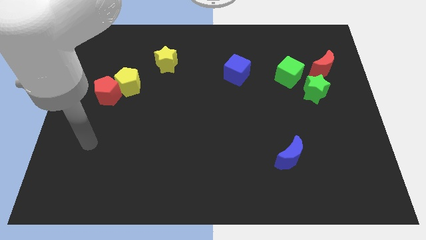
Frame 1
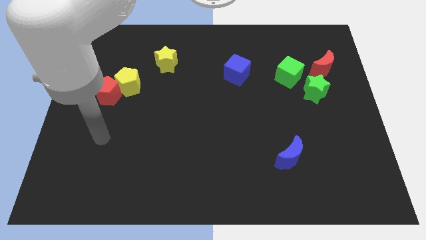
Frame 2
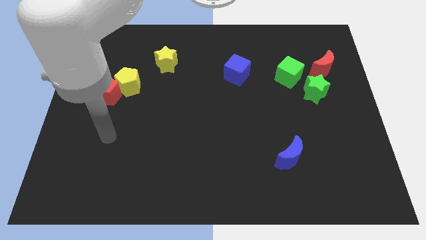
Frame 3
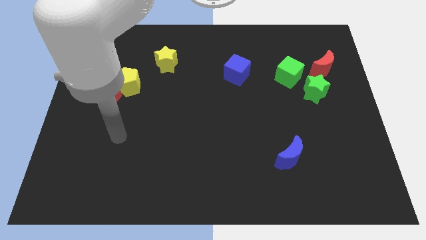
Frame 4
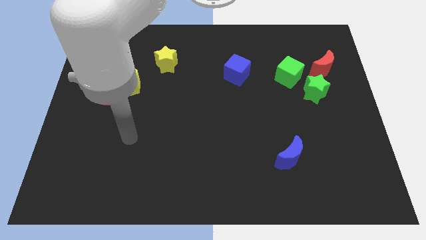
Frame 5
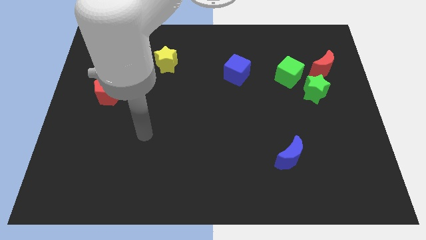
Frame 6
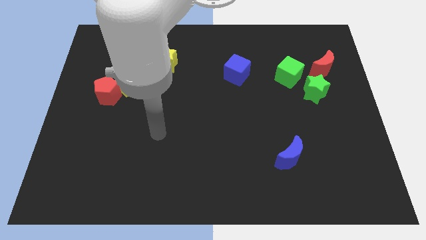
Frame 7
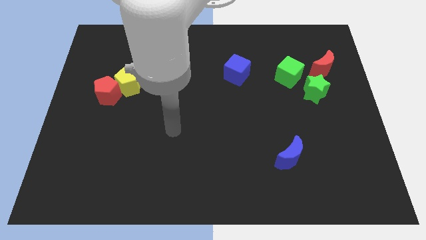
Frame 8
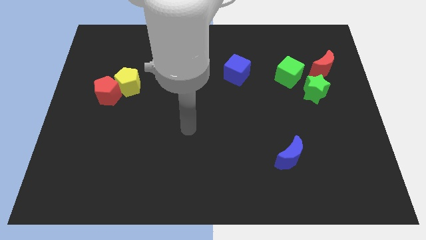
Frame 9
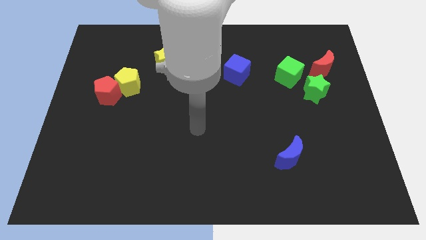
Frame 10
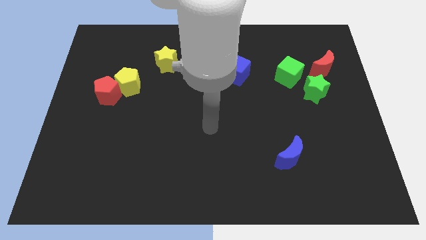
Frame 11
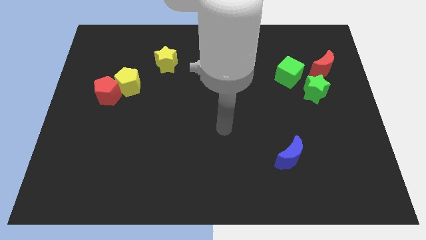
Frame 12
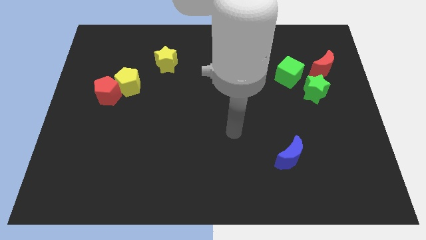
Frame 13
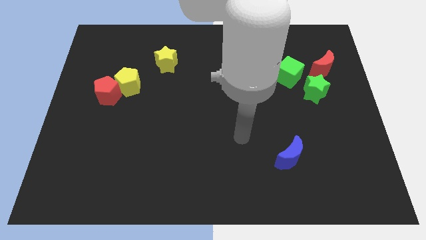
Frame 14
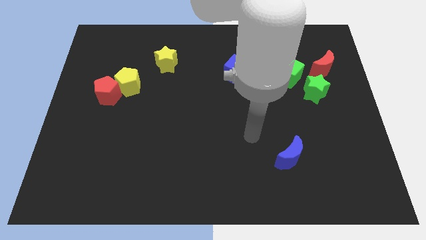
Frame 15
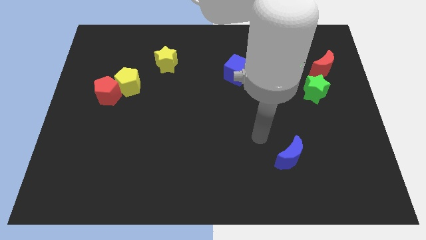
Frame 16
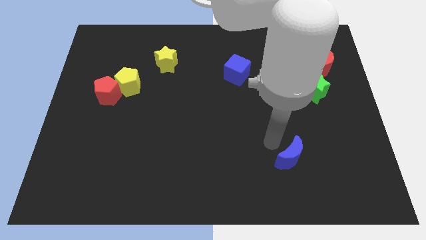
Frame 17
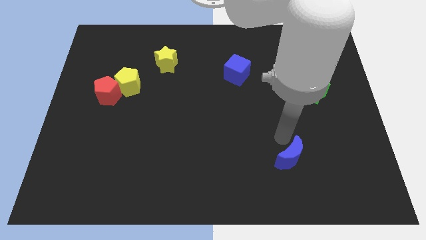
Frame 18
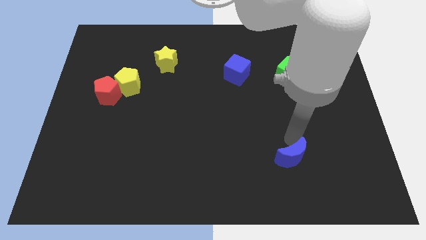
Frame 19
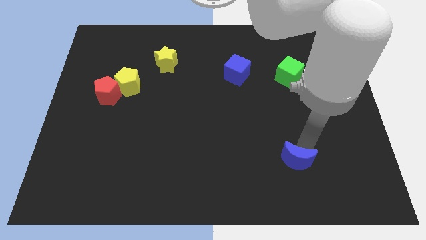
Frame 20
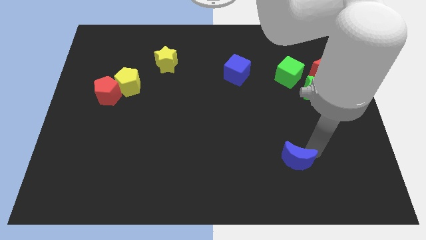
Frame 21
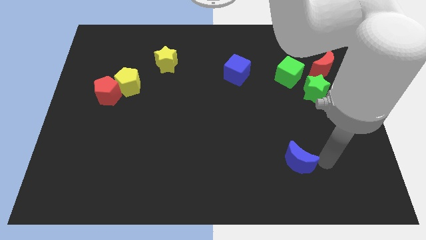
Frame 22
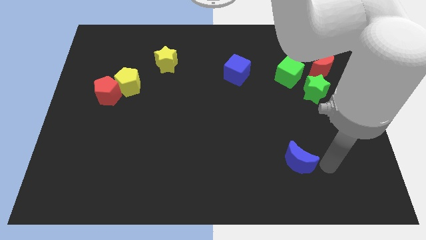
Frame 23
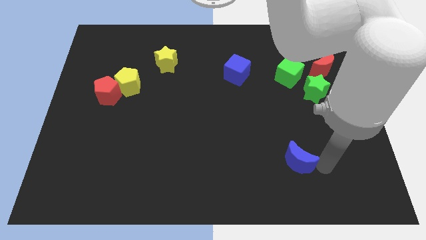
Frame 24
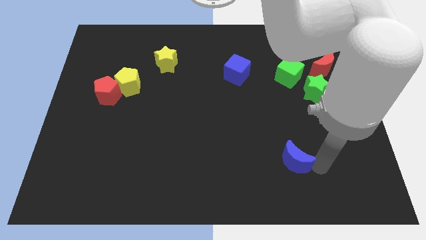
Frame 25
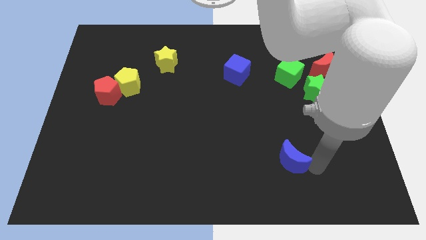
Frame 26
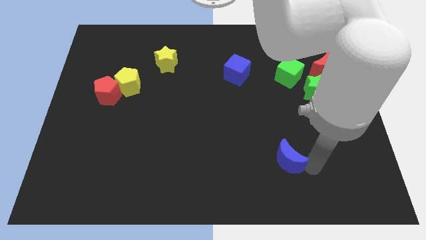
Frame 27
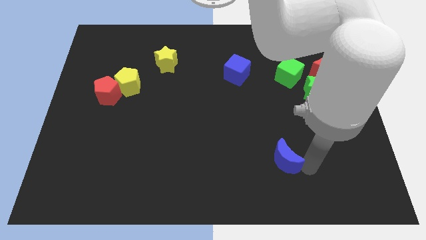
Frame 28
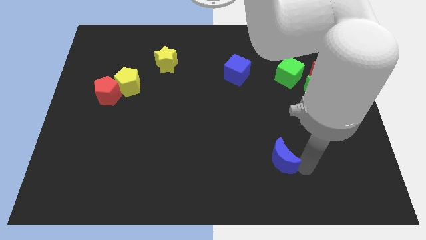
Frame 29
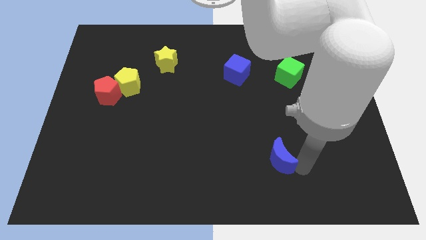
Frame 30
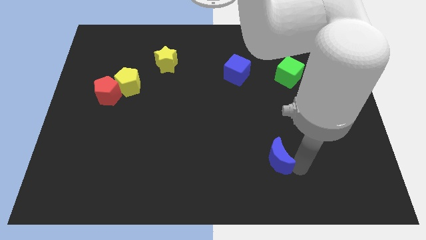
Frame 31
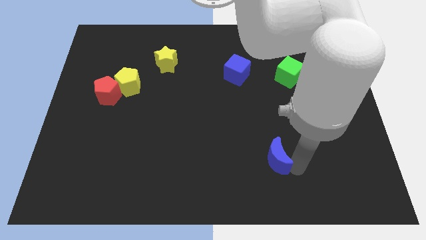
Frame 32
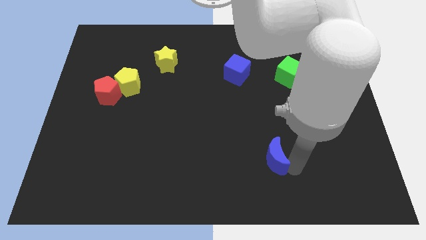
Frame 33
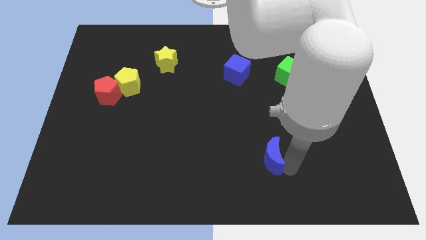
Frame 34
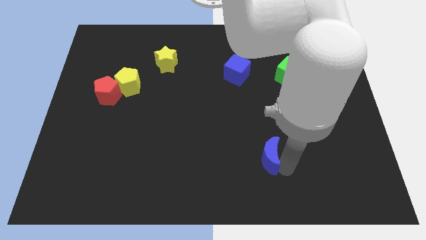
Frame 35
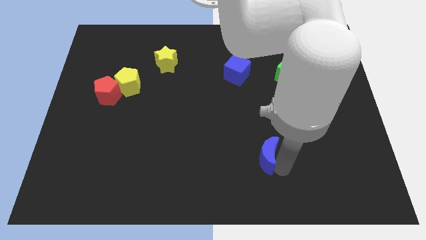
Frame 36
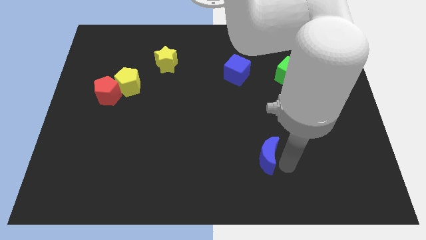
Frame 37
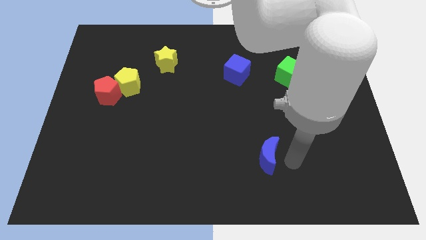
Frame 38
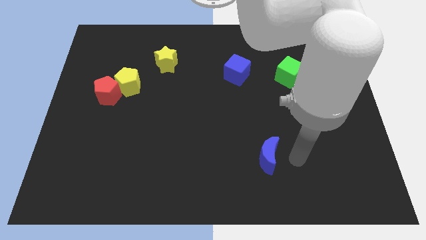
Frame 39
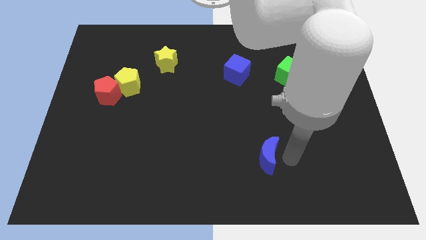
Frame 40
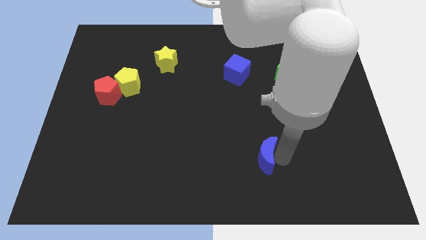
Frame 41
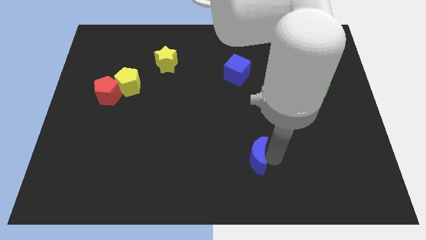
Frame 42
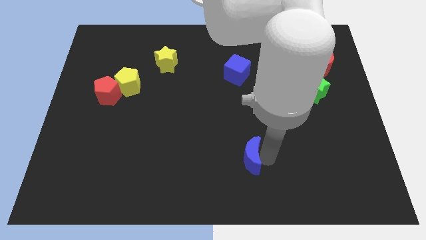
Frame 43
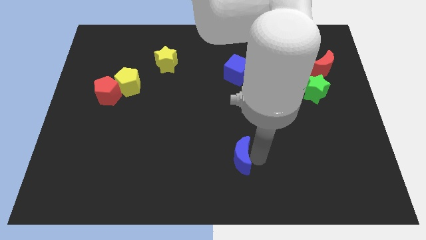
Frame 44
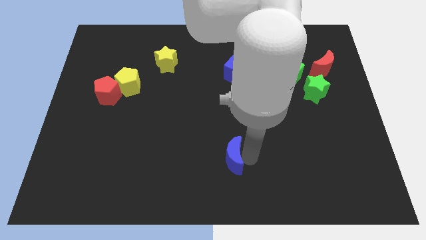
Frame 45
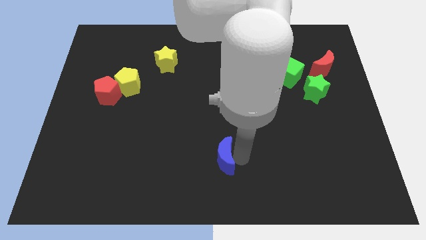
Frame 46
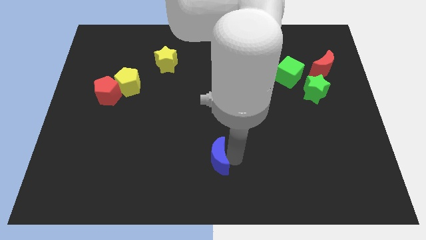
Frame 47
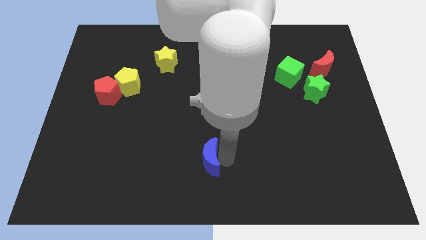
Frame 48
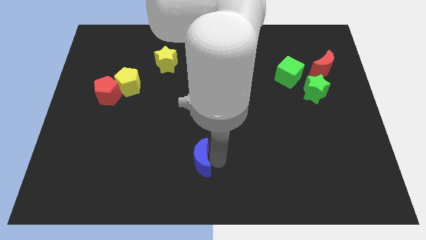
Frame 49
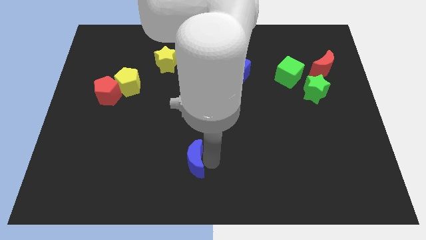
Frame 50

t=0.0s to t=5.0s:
slide the blue moon left

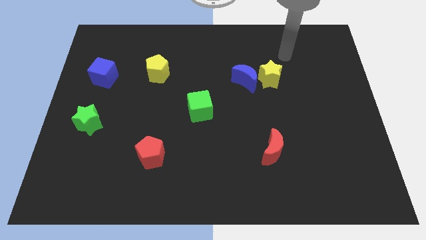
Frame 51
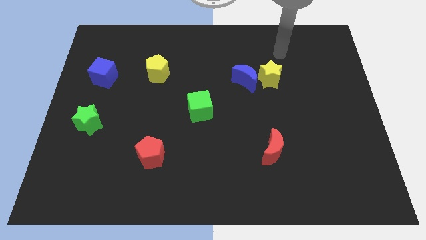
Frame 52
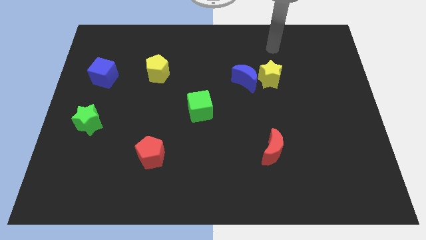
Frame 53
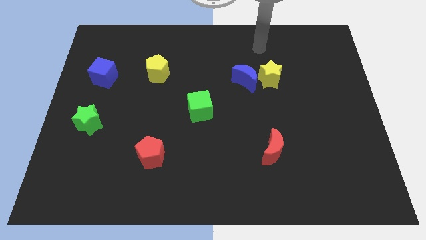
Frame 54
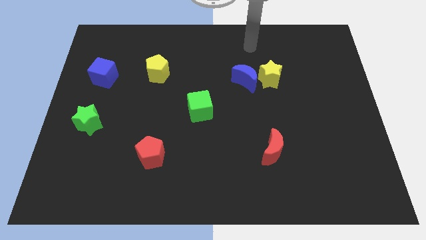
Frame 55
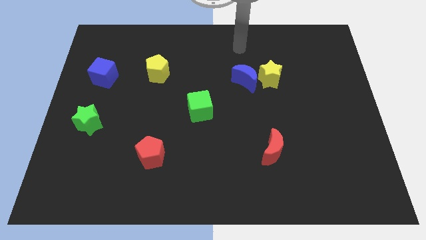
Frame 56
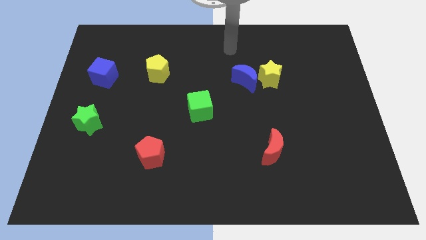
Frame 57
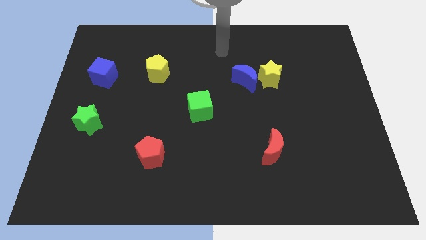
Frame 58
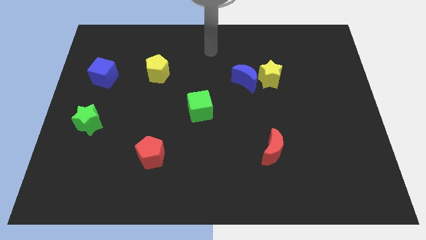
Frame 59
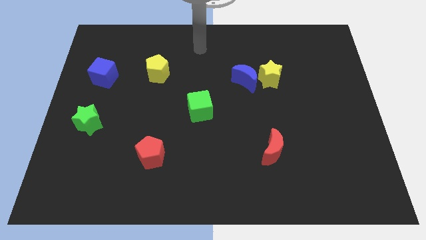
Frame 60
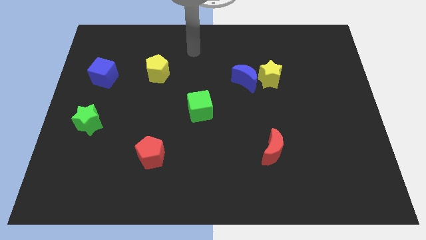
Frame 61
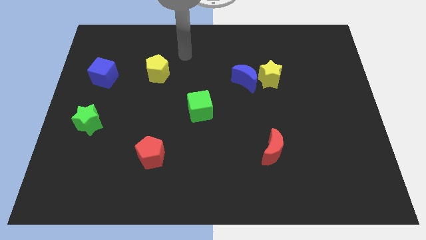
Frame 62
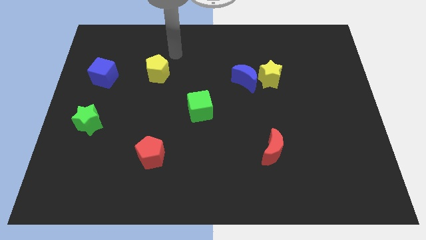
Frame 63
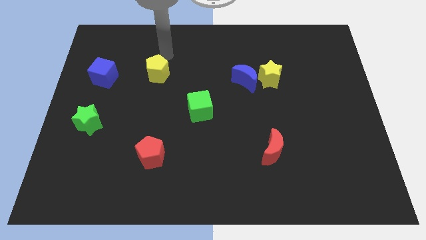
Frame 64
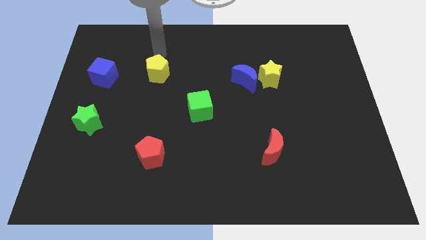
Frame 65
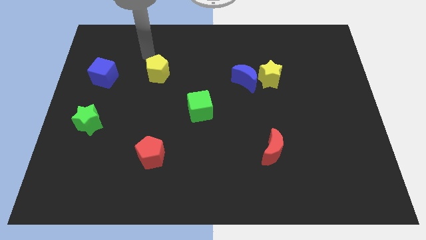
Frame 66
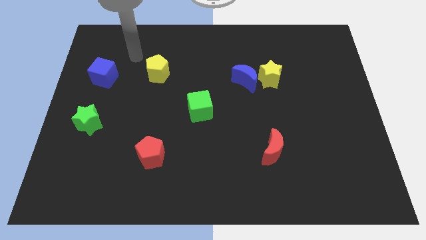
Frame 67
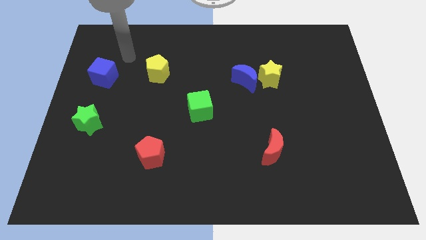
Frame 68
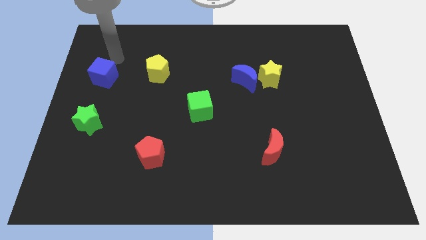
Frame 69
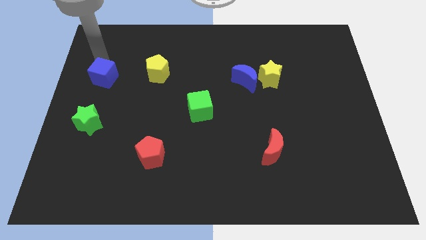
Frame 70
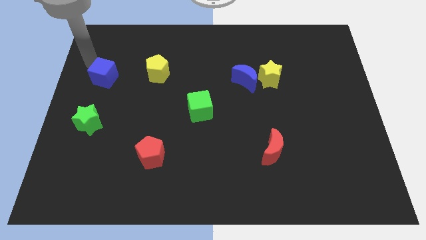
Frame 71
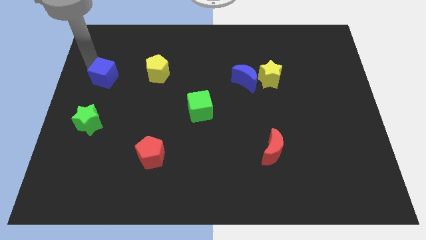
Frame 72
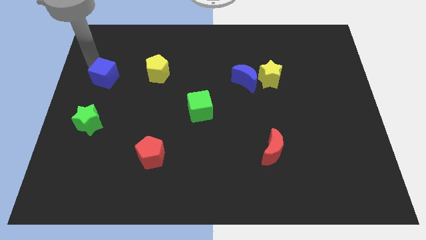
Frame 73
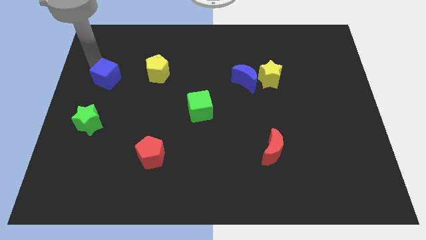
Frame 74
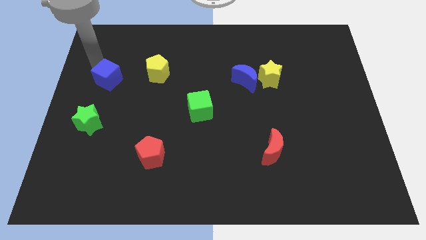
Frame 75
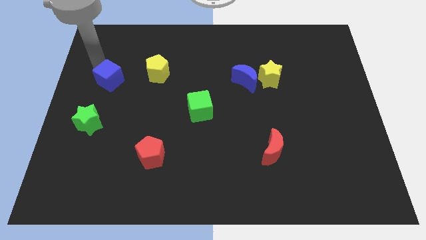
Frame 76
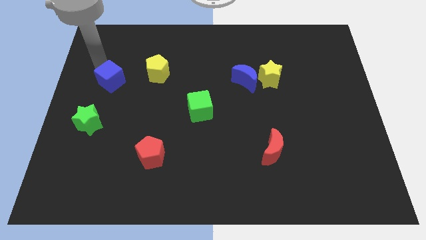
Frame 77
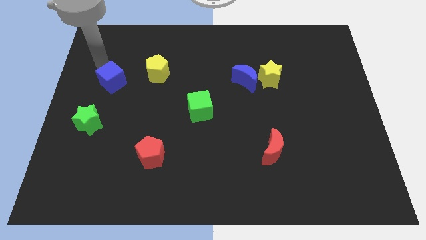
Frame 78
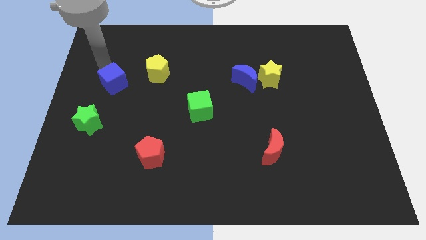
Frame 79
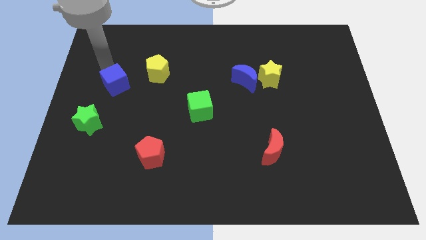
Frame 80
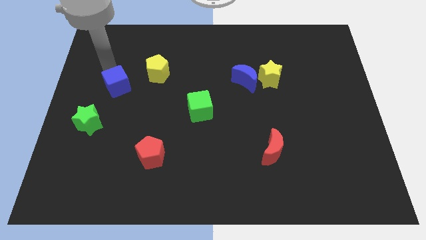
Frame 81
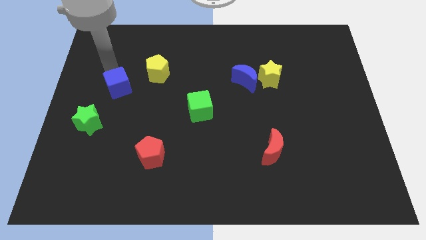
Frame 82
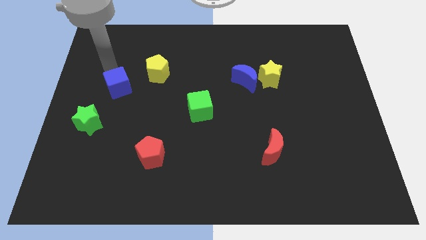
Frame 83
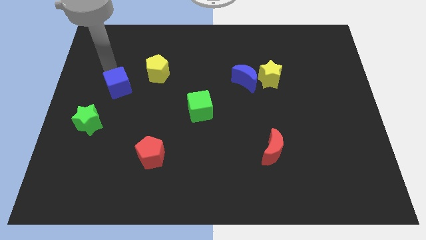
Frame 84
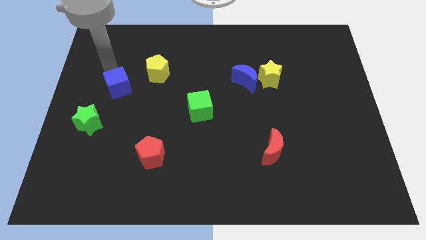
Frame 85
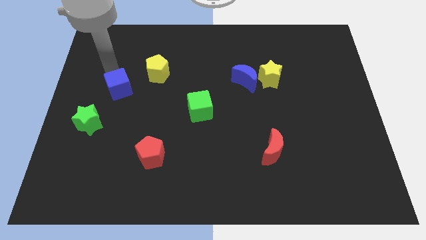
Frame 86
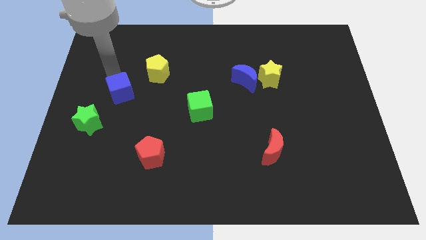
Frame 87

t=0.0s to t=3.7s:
move the blue cube slightly downwards and then to the right
